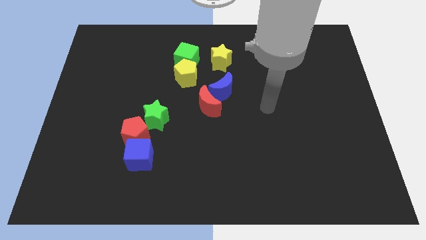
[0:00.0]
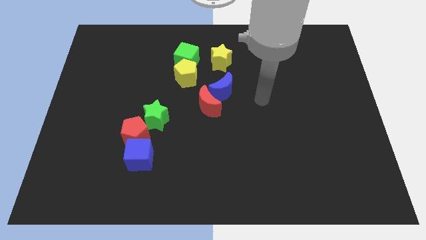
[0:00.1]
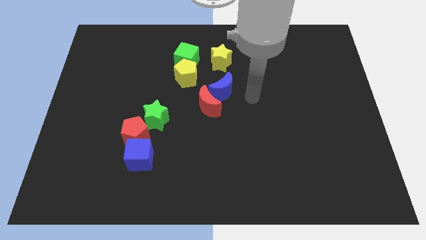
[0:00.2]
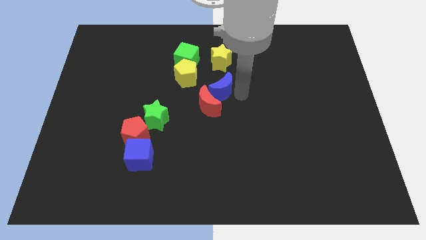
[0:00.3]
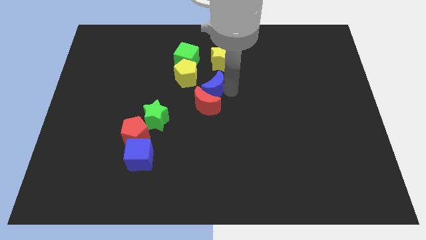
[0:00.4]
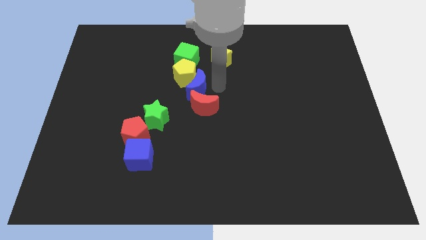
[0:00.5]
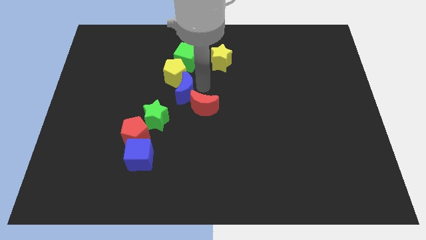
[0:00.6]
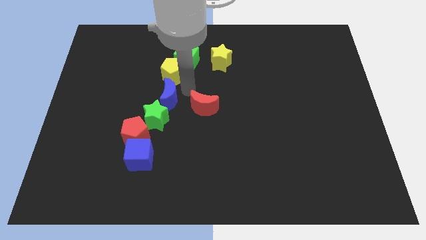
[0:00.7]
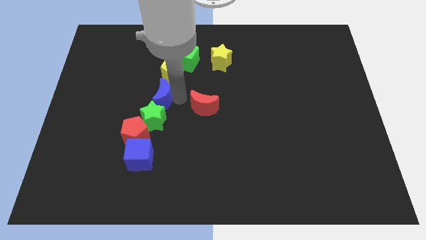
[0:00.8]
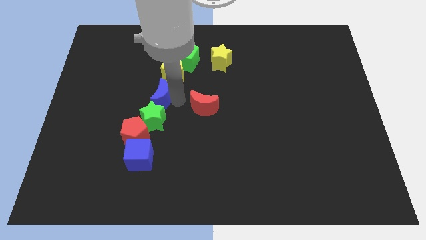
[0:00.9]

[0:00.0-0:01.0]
pull the red moon apart from the blue moon

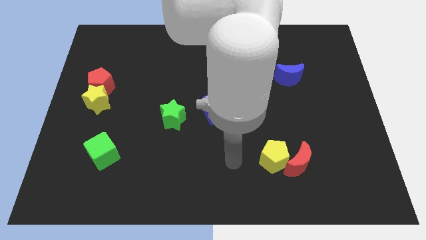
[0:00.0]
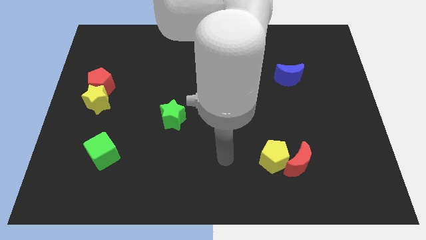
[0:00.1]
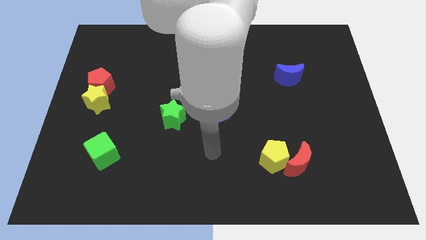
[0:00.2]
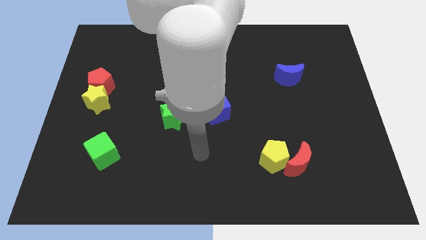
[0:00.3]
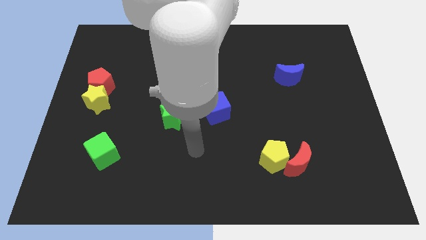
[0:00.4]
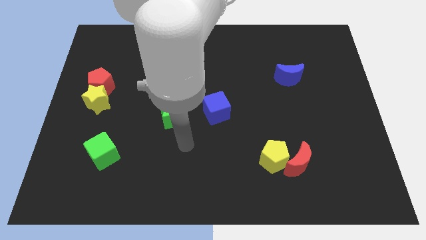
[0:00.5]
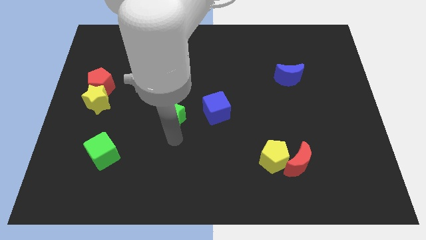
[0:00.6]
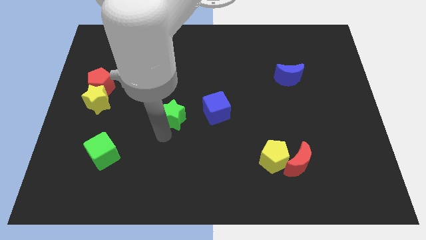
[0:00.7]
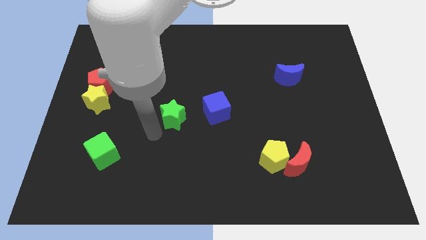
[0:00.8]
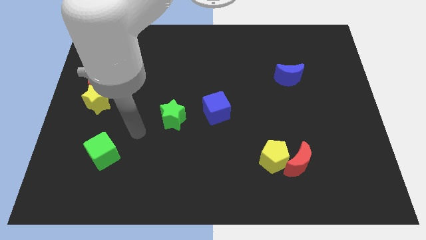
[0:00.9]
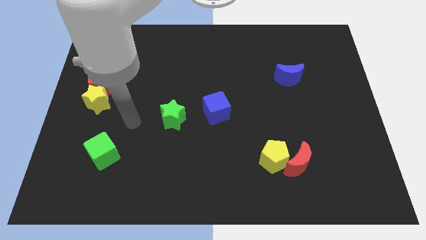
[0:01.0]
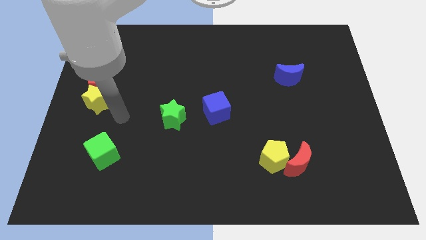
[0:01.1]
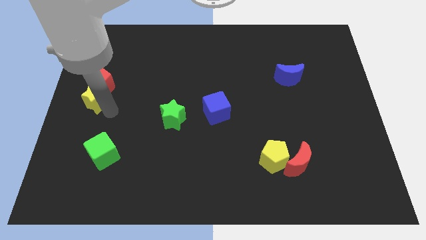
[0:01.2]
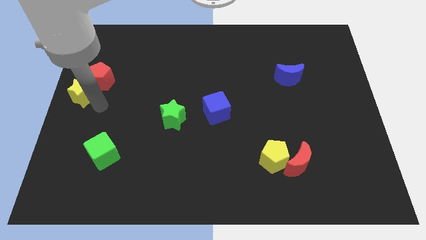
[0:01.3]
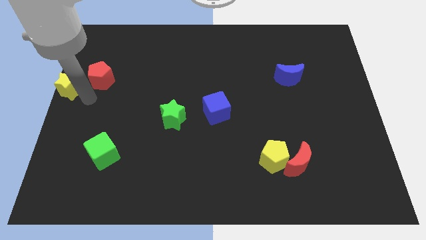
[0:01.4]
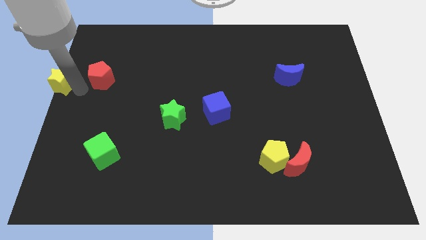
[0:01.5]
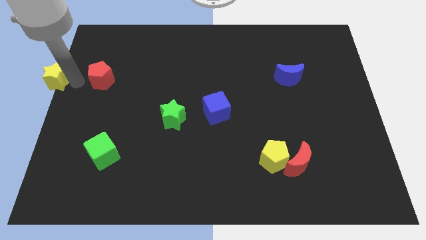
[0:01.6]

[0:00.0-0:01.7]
move the red pentagon away from the yellow star

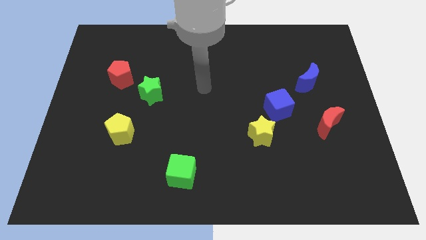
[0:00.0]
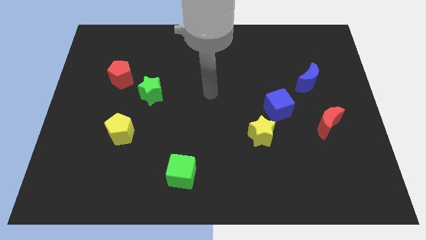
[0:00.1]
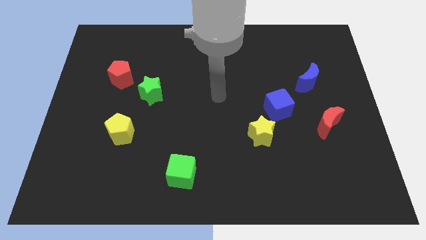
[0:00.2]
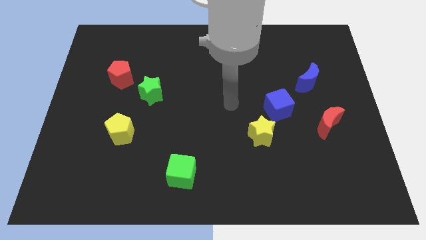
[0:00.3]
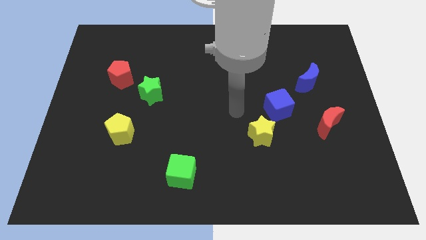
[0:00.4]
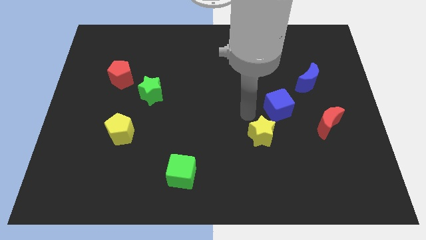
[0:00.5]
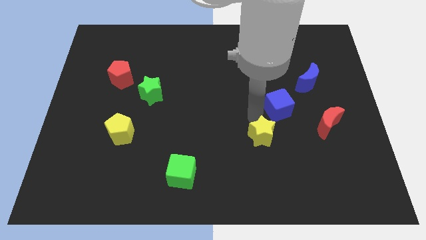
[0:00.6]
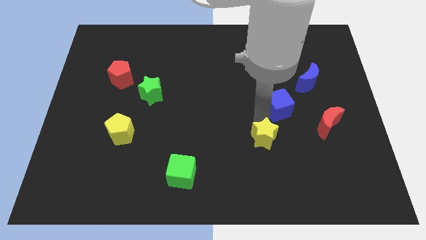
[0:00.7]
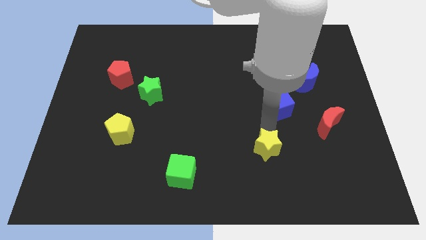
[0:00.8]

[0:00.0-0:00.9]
pull the blue cube apart from the yellow star

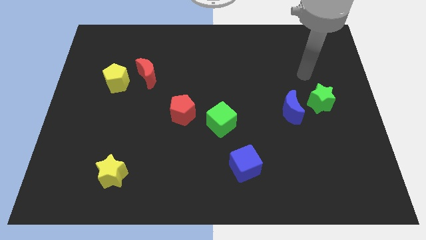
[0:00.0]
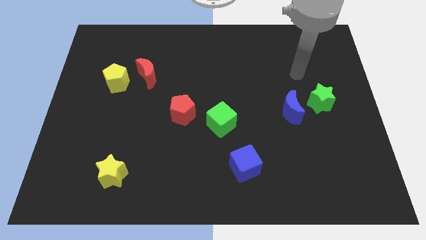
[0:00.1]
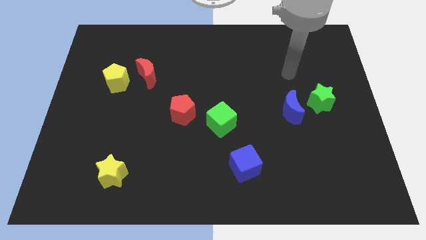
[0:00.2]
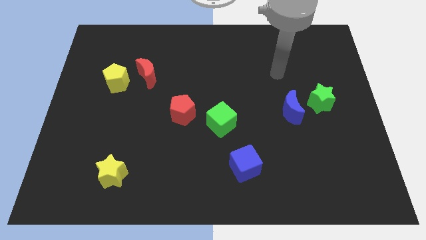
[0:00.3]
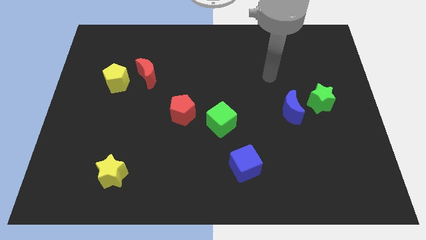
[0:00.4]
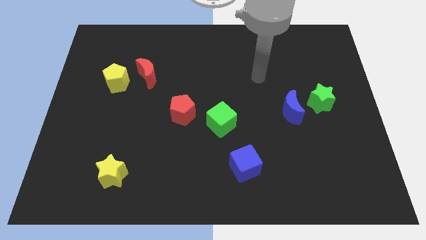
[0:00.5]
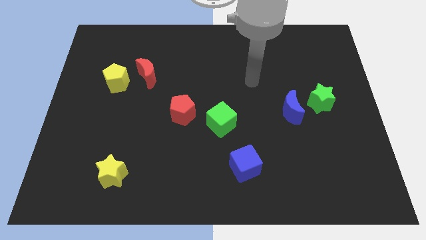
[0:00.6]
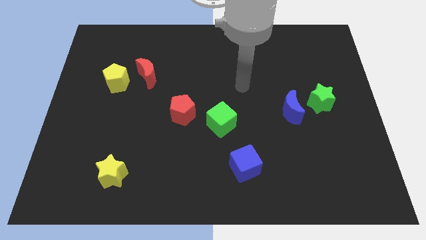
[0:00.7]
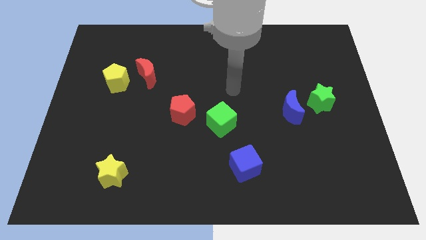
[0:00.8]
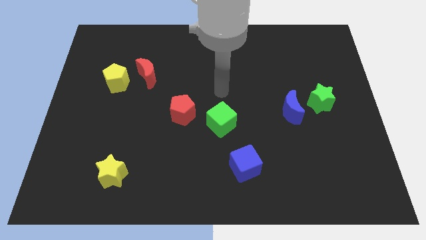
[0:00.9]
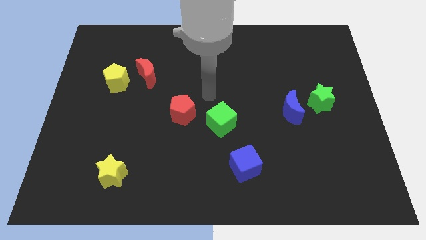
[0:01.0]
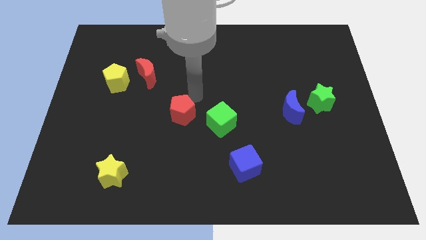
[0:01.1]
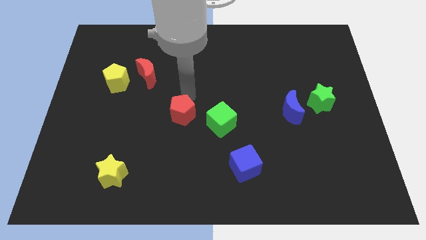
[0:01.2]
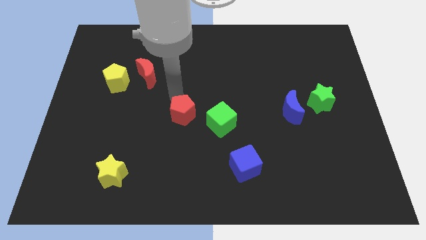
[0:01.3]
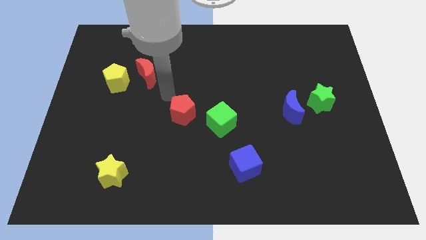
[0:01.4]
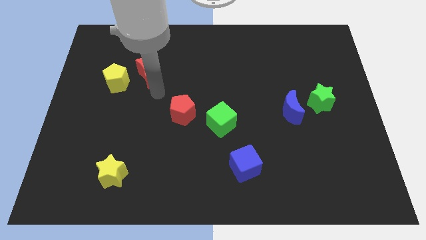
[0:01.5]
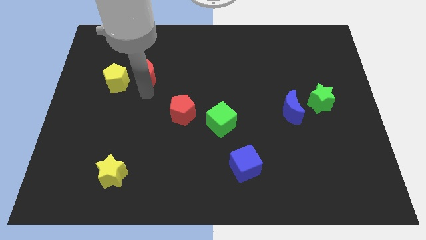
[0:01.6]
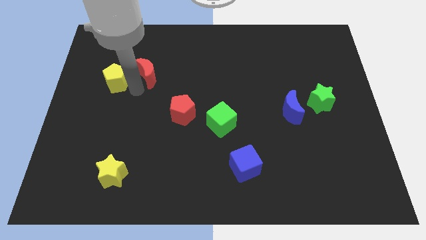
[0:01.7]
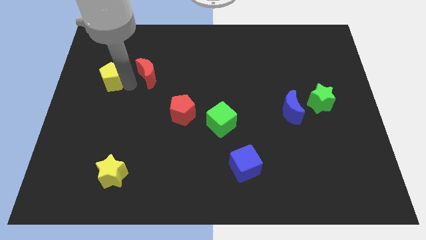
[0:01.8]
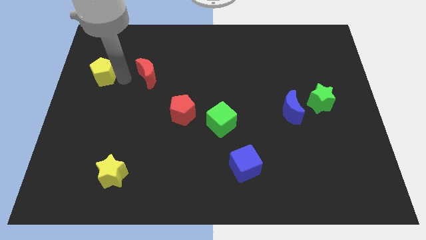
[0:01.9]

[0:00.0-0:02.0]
move the red moon away from the yellow pentagon

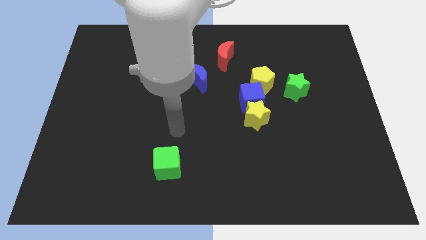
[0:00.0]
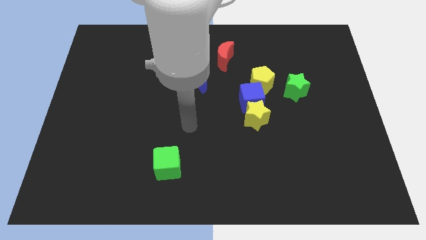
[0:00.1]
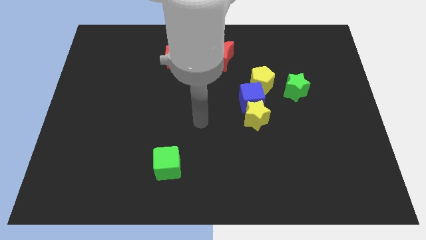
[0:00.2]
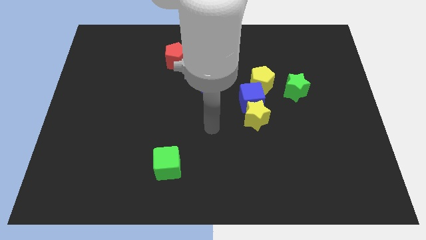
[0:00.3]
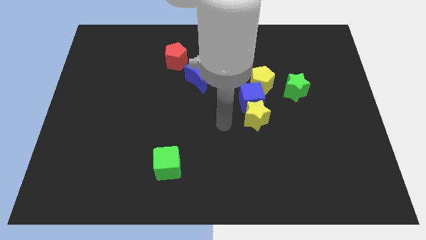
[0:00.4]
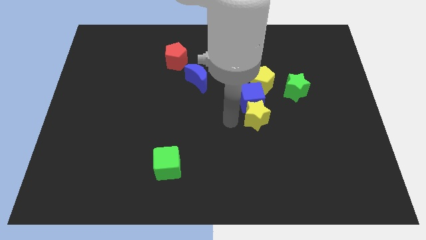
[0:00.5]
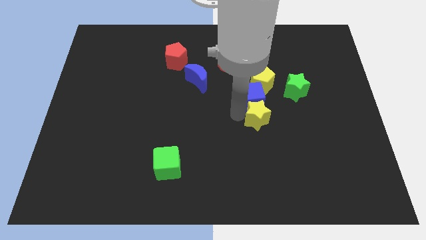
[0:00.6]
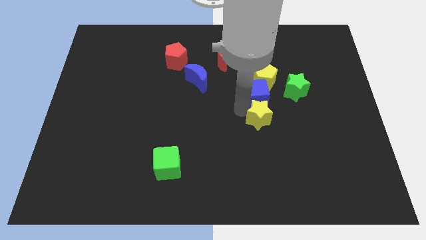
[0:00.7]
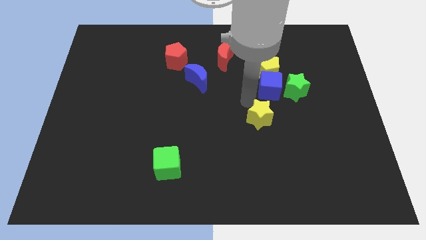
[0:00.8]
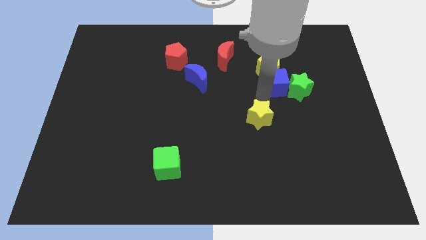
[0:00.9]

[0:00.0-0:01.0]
pull the yellow star apart from the blue cube

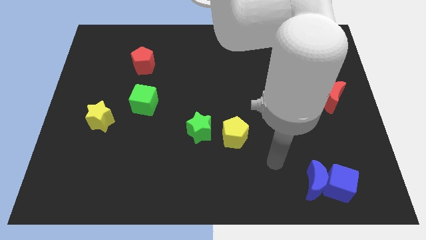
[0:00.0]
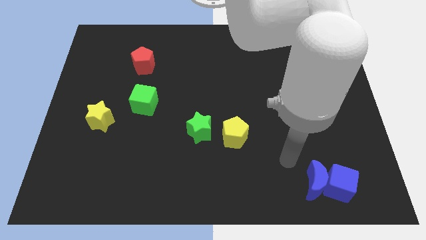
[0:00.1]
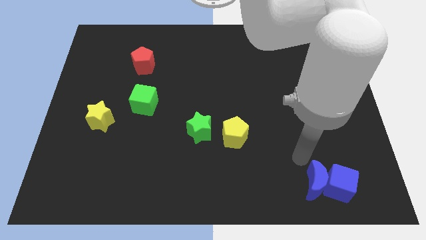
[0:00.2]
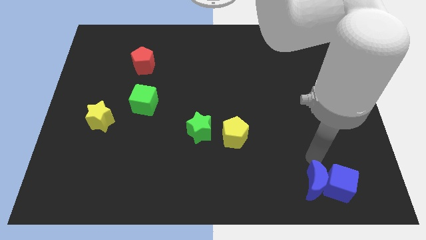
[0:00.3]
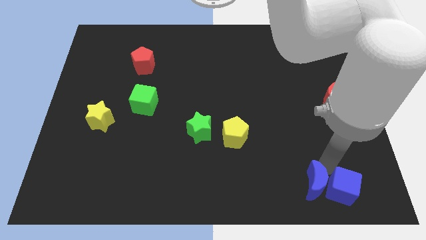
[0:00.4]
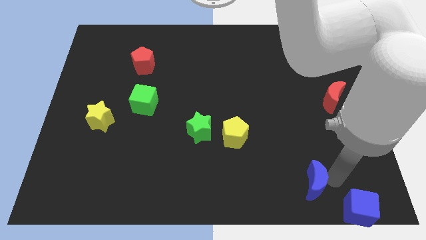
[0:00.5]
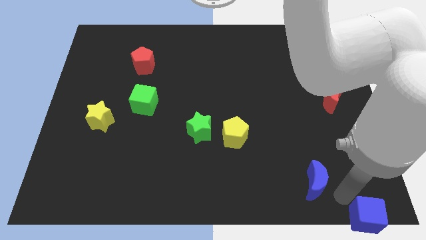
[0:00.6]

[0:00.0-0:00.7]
pull the blue moon apart from the blue cube

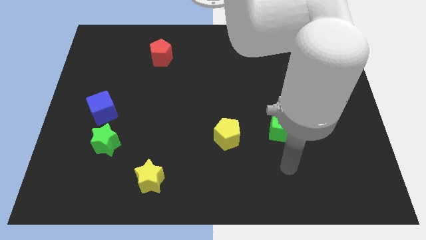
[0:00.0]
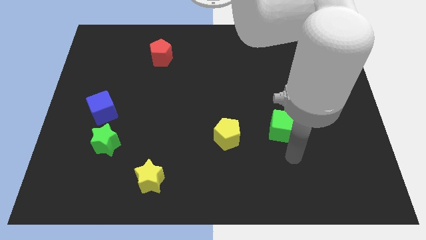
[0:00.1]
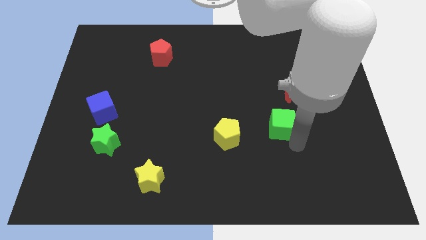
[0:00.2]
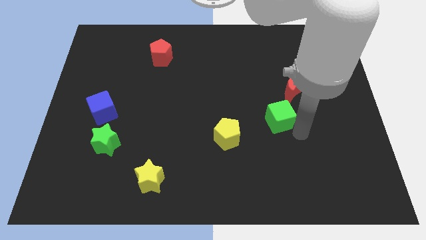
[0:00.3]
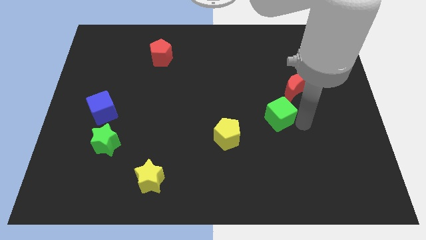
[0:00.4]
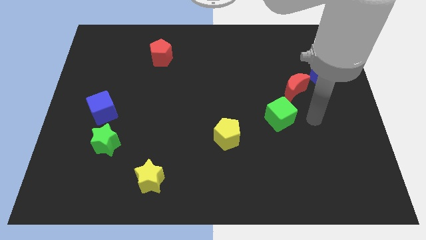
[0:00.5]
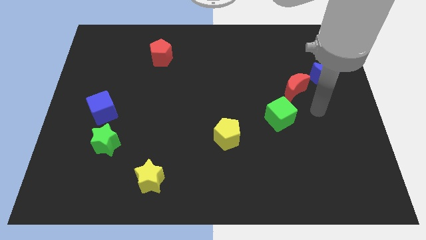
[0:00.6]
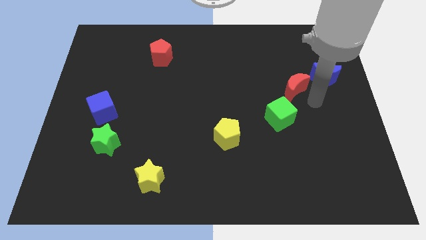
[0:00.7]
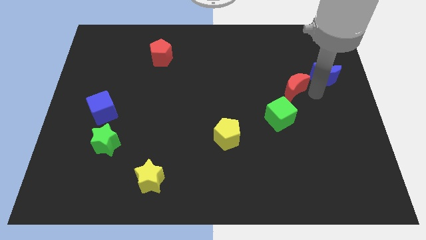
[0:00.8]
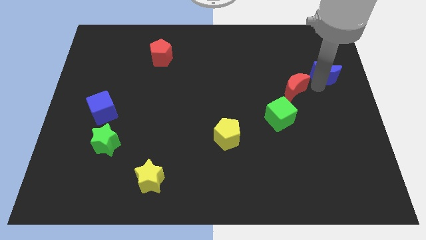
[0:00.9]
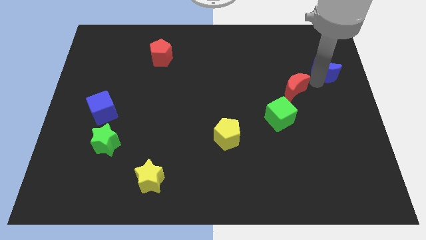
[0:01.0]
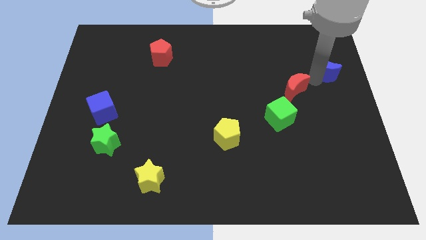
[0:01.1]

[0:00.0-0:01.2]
separate the red moon from the blue moon

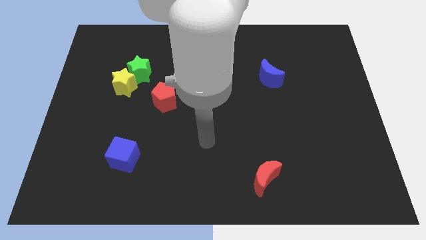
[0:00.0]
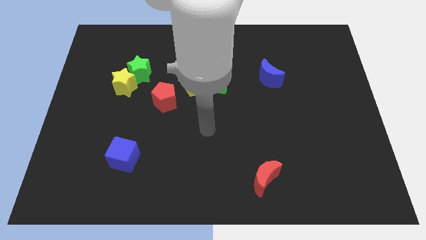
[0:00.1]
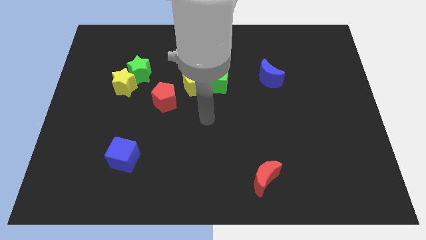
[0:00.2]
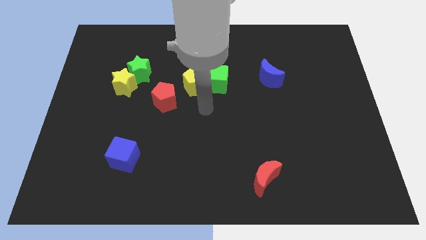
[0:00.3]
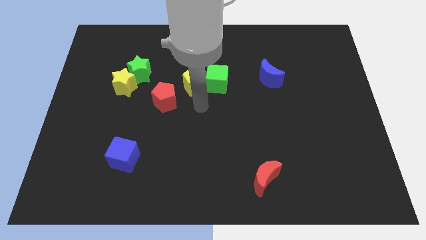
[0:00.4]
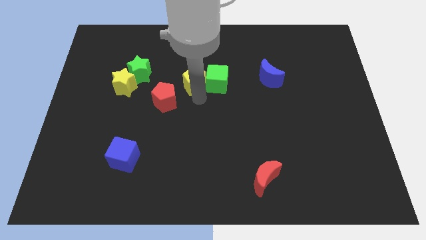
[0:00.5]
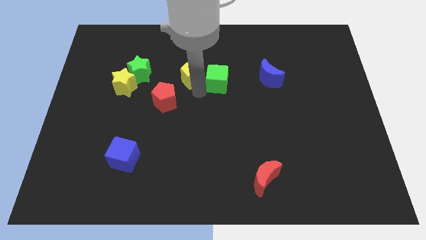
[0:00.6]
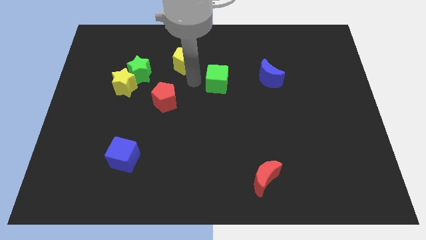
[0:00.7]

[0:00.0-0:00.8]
pull the green cube apart from the yellow pentagon
